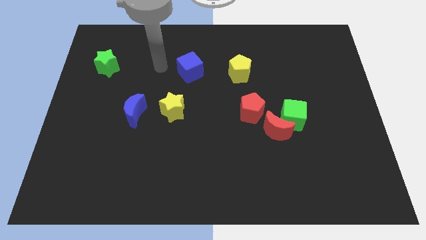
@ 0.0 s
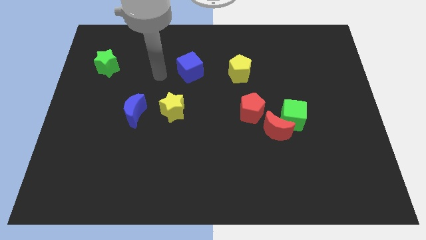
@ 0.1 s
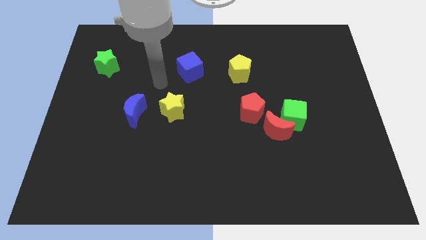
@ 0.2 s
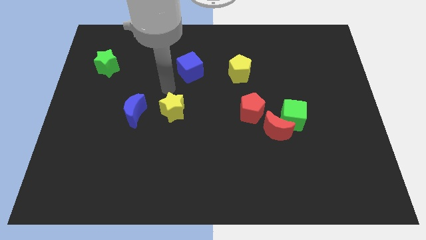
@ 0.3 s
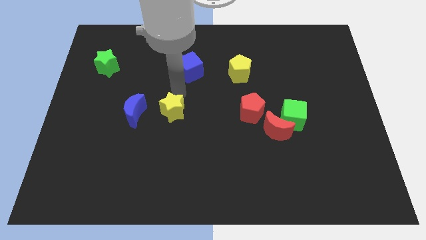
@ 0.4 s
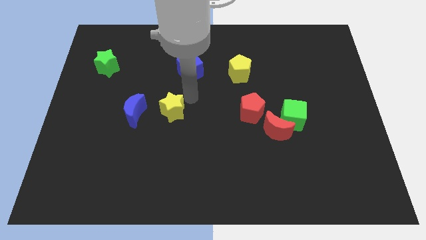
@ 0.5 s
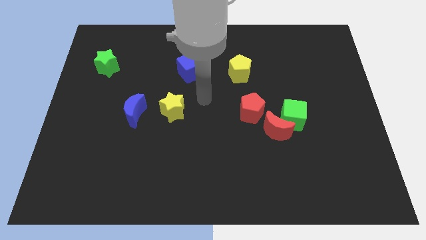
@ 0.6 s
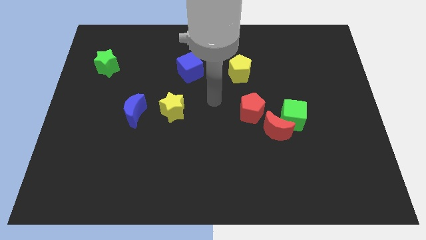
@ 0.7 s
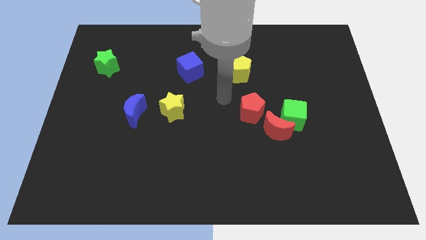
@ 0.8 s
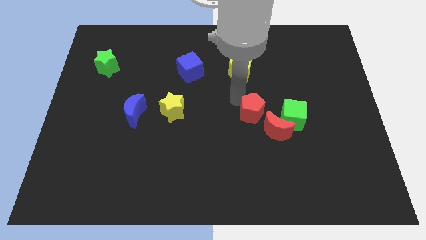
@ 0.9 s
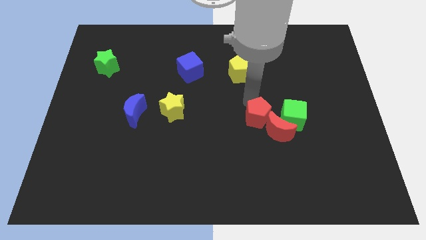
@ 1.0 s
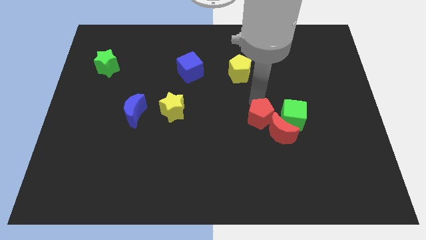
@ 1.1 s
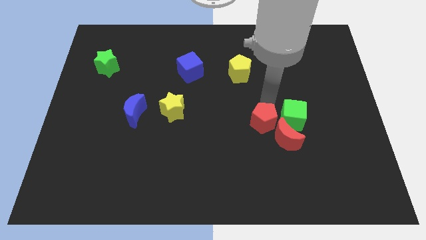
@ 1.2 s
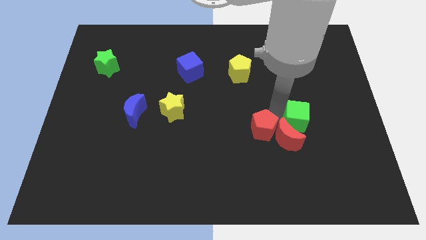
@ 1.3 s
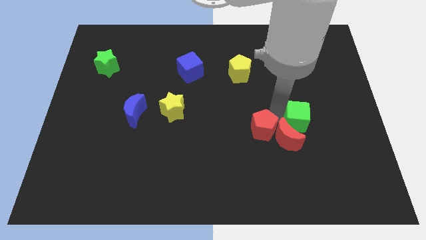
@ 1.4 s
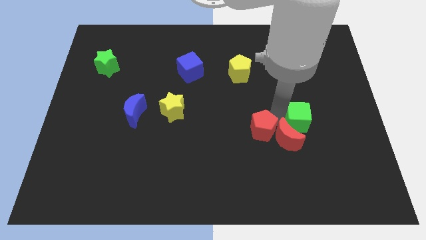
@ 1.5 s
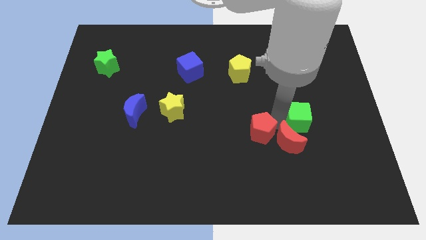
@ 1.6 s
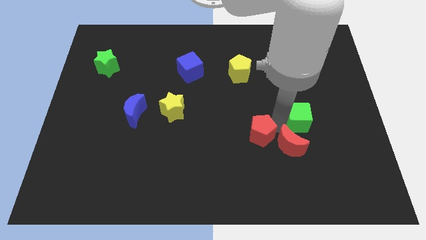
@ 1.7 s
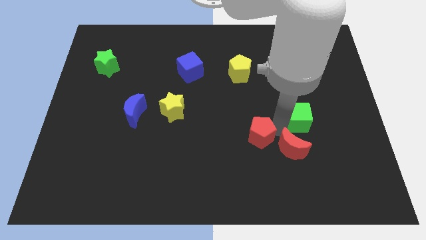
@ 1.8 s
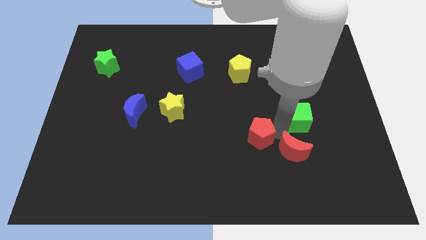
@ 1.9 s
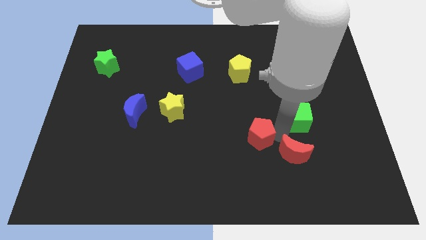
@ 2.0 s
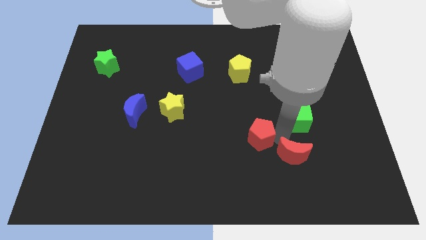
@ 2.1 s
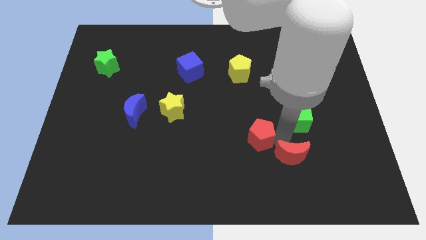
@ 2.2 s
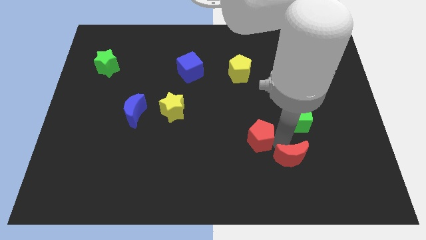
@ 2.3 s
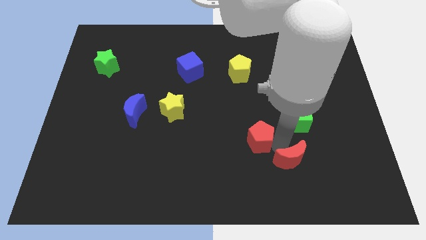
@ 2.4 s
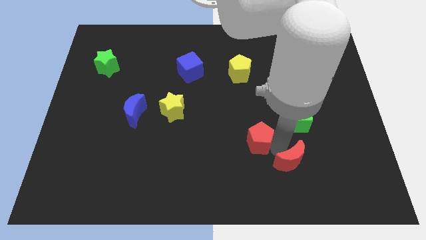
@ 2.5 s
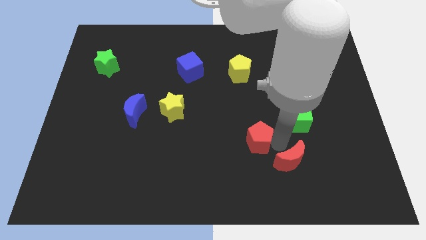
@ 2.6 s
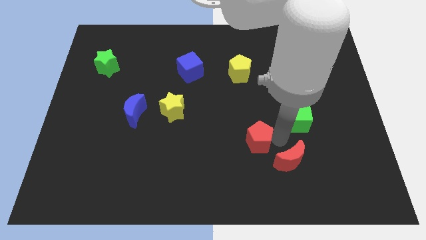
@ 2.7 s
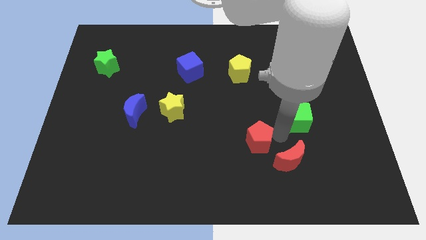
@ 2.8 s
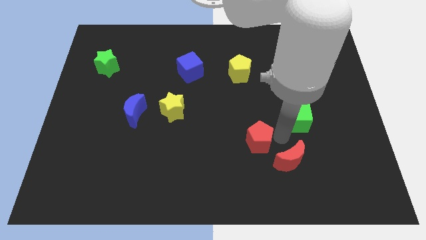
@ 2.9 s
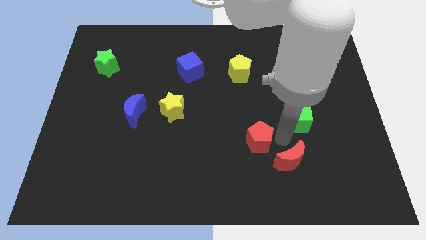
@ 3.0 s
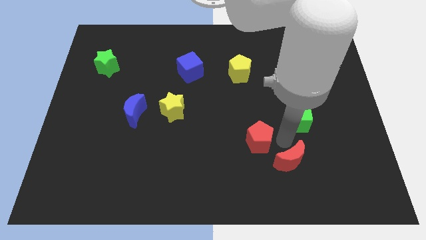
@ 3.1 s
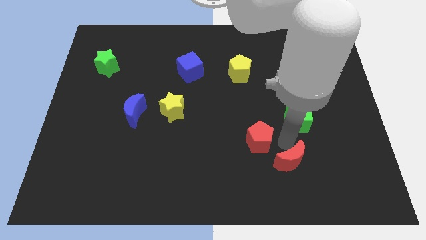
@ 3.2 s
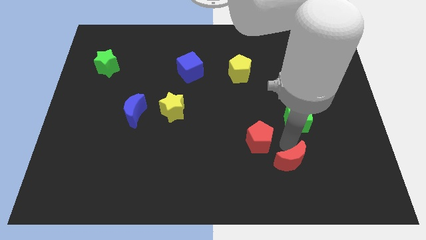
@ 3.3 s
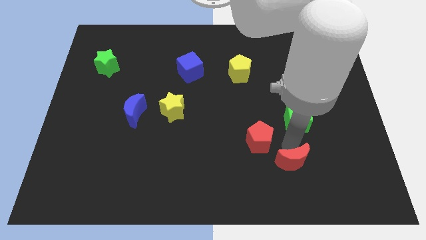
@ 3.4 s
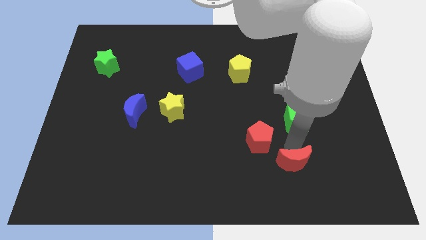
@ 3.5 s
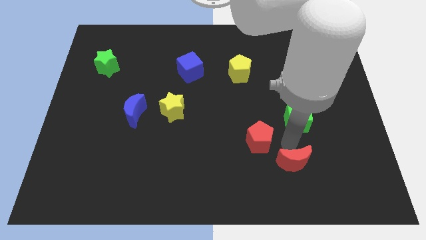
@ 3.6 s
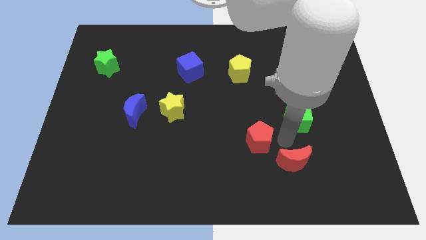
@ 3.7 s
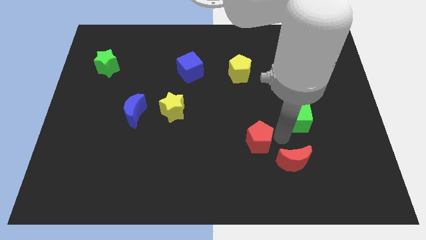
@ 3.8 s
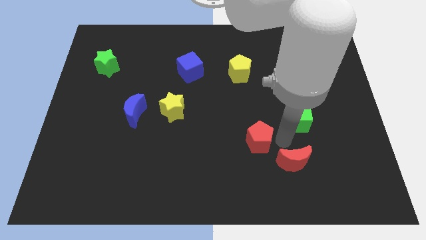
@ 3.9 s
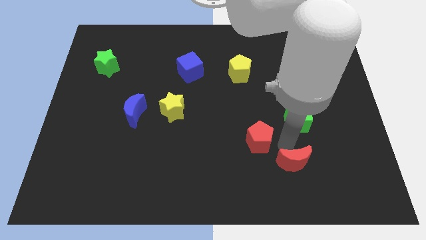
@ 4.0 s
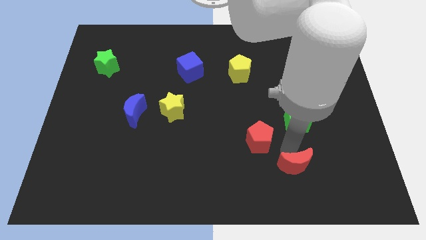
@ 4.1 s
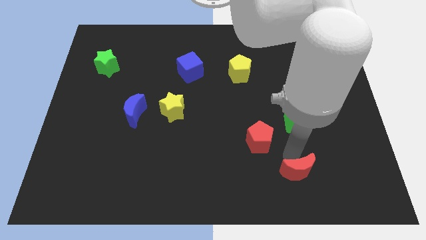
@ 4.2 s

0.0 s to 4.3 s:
pull the red moon apart from the green cube and red pentagon

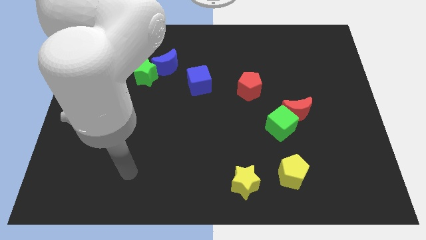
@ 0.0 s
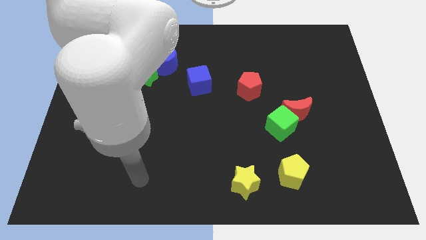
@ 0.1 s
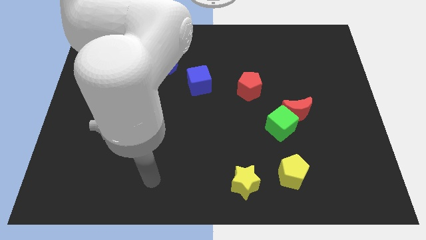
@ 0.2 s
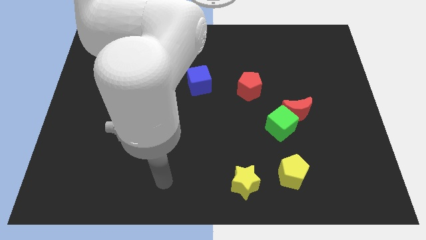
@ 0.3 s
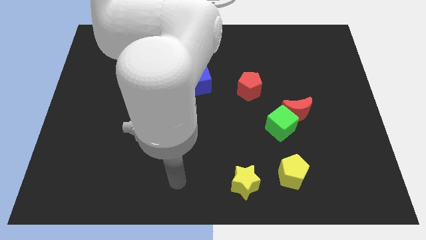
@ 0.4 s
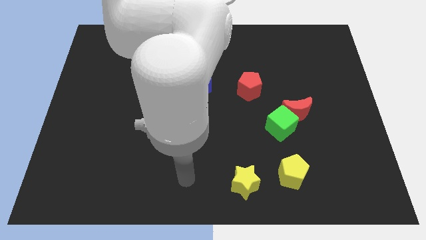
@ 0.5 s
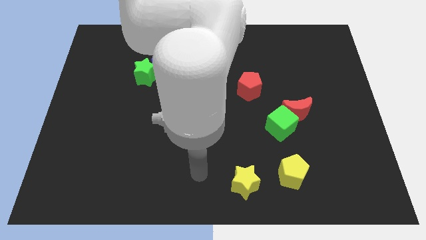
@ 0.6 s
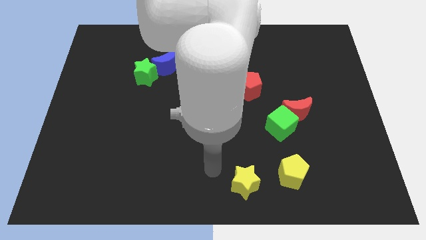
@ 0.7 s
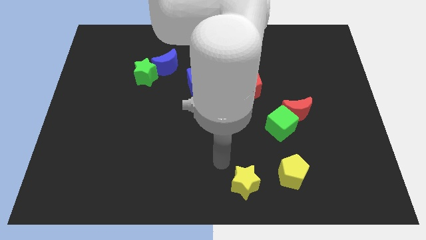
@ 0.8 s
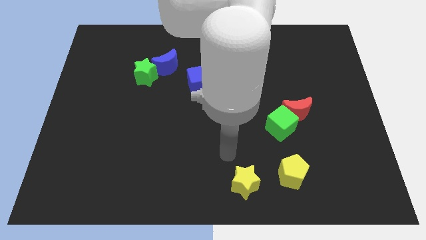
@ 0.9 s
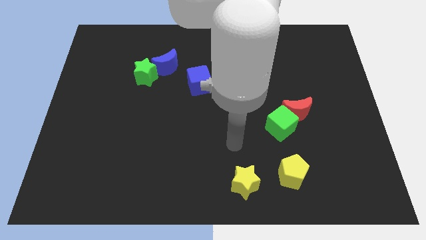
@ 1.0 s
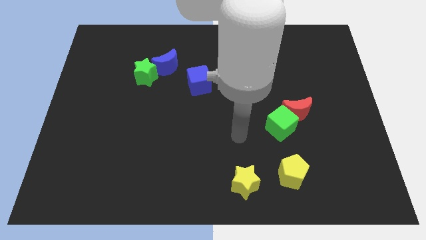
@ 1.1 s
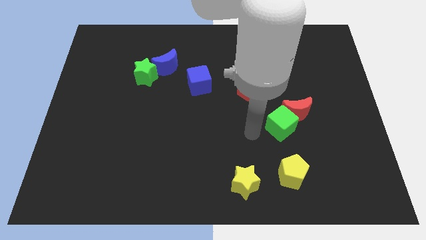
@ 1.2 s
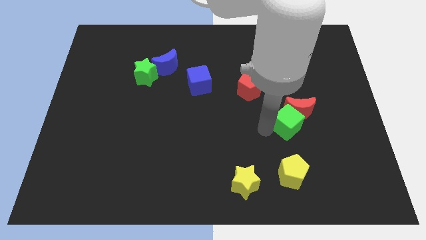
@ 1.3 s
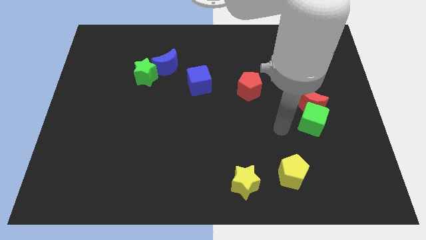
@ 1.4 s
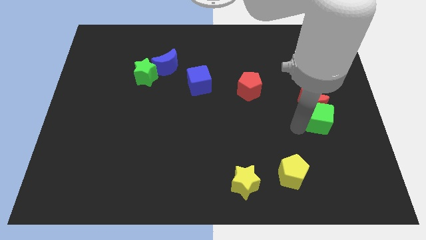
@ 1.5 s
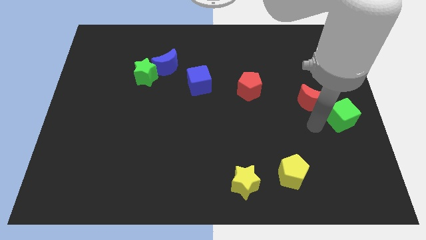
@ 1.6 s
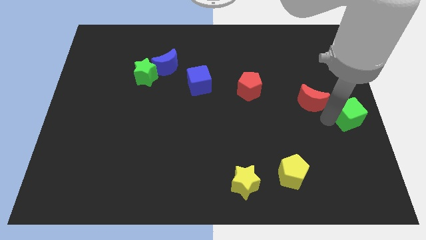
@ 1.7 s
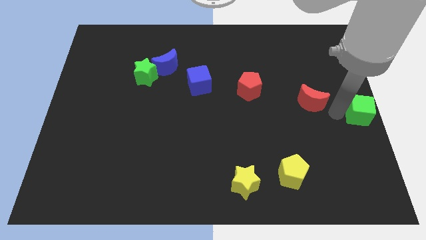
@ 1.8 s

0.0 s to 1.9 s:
separate the red moon from the green cube

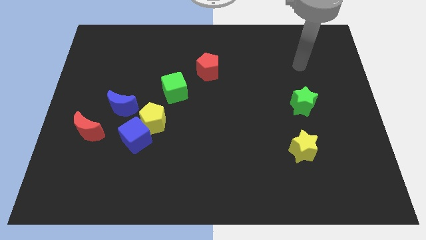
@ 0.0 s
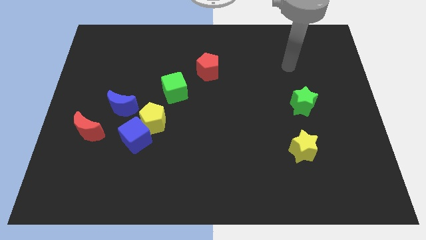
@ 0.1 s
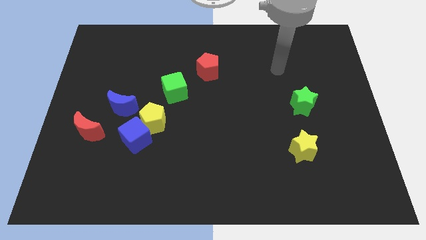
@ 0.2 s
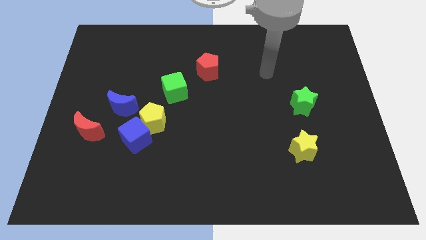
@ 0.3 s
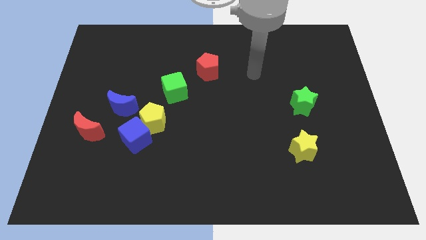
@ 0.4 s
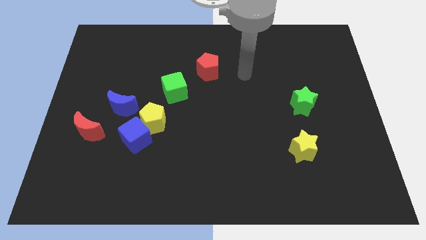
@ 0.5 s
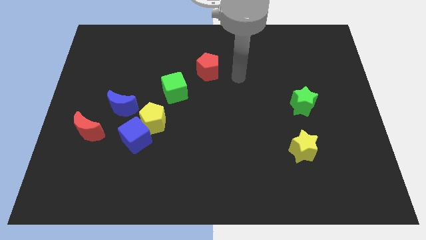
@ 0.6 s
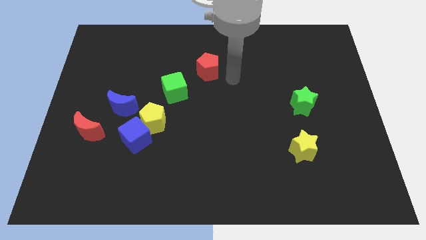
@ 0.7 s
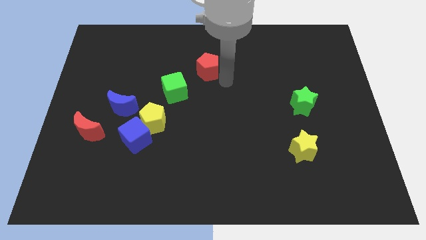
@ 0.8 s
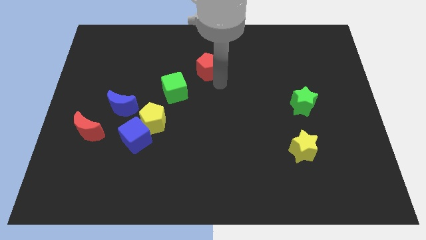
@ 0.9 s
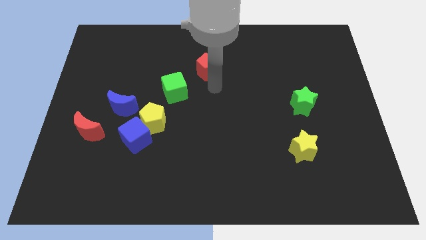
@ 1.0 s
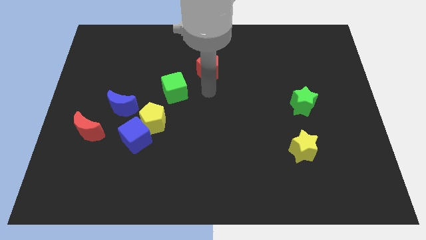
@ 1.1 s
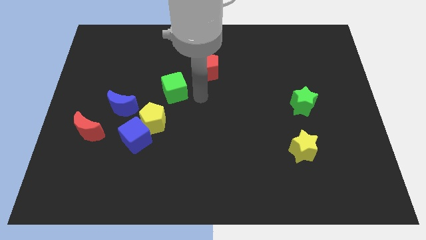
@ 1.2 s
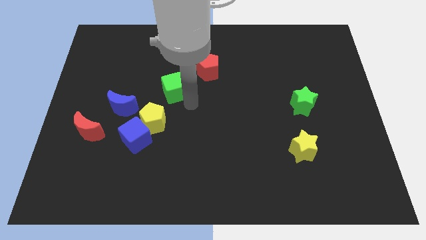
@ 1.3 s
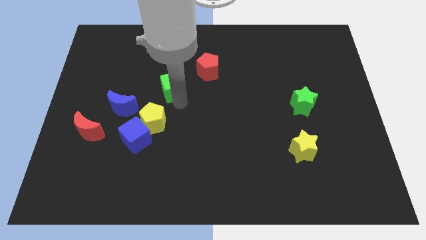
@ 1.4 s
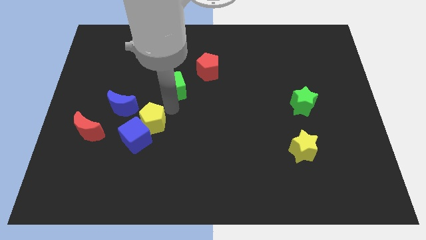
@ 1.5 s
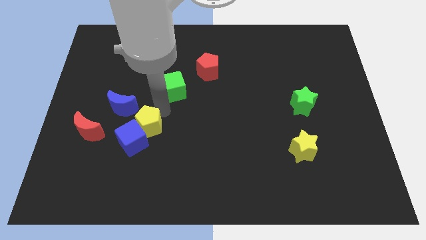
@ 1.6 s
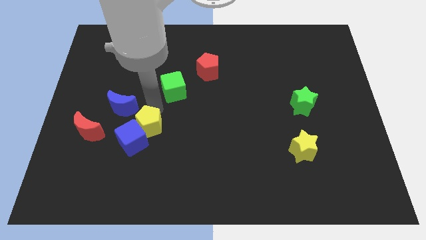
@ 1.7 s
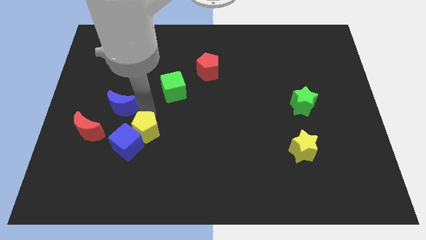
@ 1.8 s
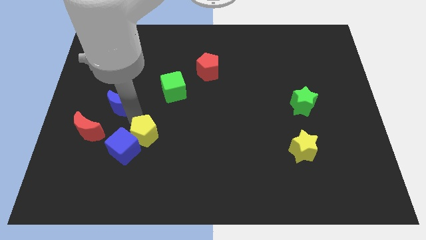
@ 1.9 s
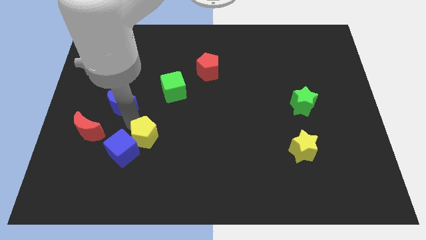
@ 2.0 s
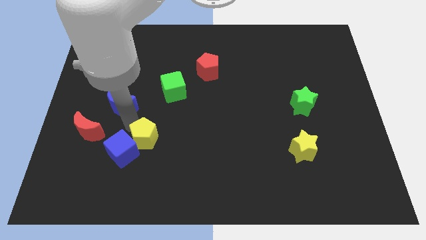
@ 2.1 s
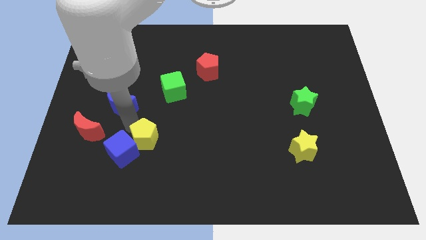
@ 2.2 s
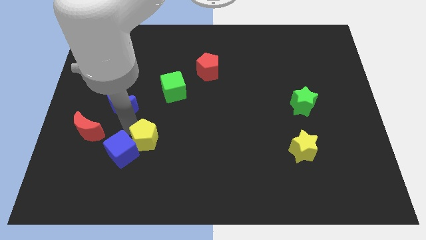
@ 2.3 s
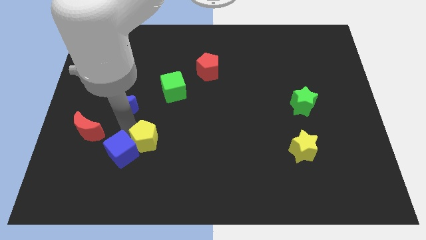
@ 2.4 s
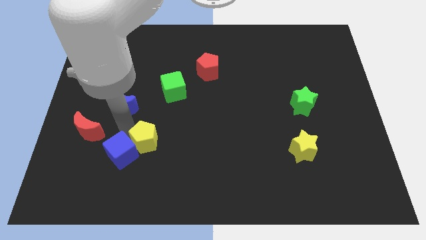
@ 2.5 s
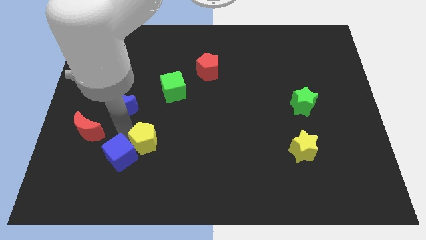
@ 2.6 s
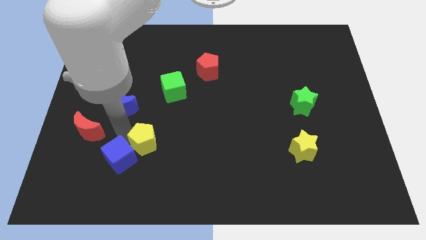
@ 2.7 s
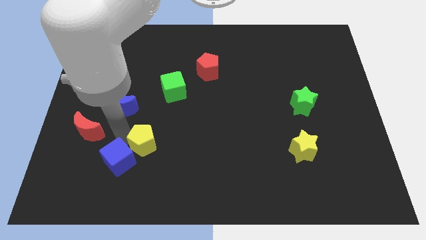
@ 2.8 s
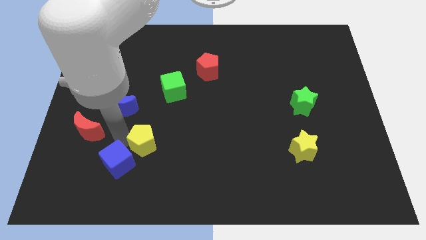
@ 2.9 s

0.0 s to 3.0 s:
move the blue cube away from the yellow pentagon and blue moon

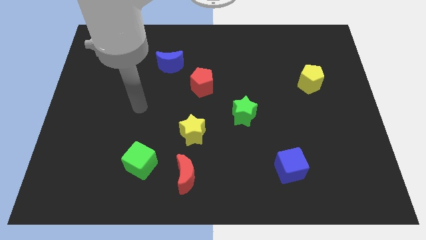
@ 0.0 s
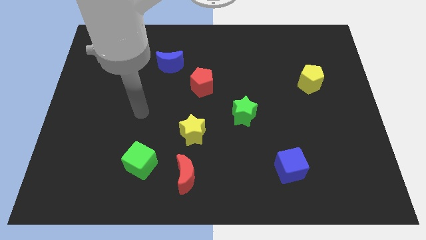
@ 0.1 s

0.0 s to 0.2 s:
pull the red moon apart from the green cube
